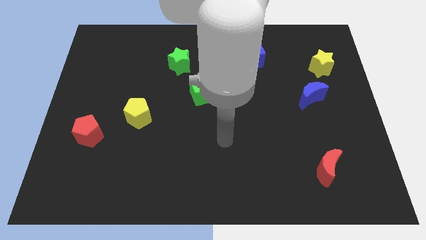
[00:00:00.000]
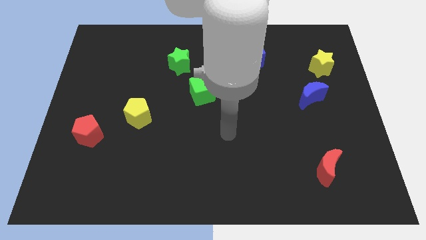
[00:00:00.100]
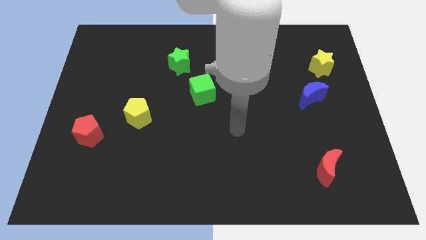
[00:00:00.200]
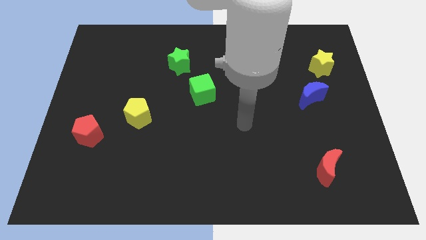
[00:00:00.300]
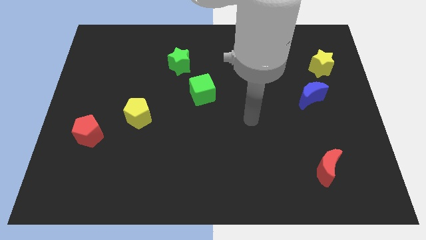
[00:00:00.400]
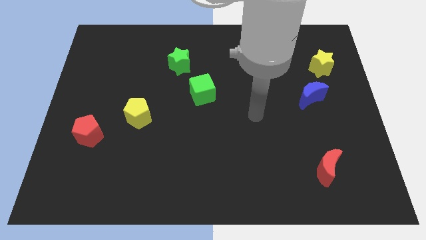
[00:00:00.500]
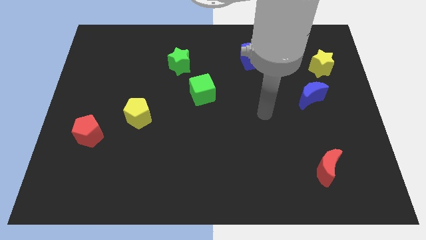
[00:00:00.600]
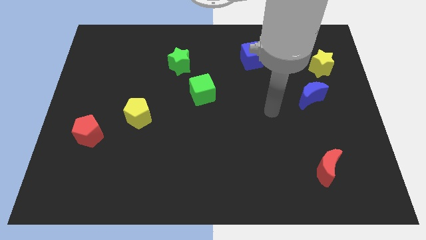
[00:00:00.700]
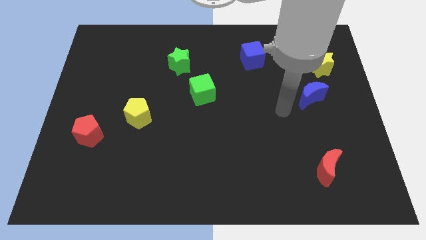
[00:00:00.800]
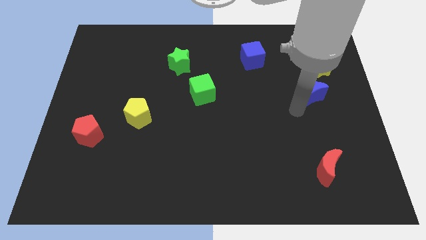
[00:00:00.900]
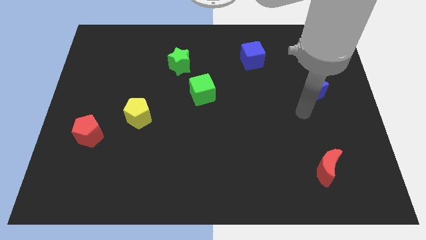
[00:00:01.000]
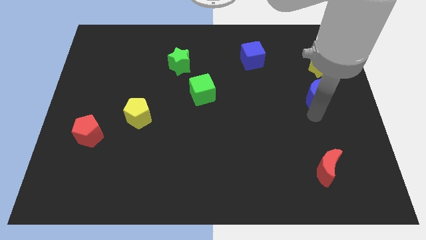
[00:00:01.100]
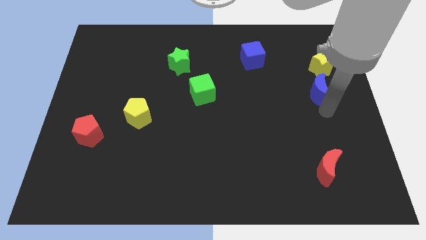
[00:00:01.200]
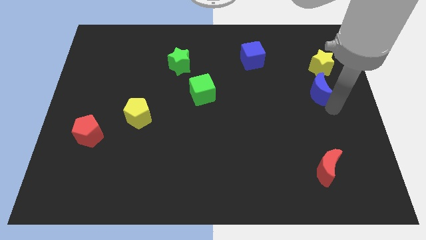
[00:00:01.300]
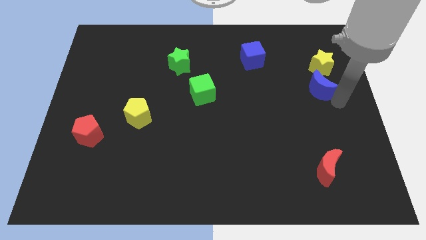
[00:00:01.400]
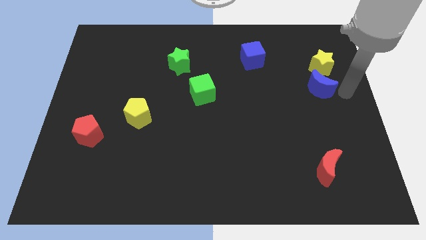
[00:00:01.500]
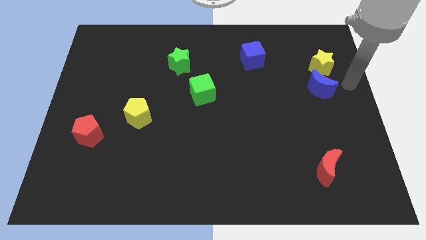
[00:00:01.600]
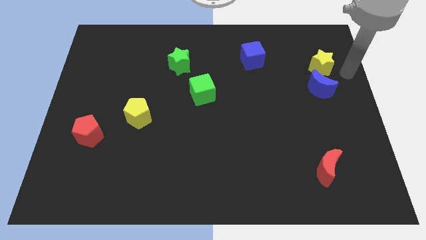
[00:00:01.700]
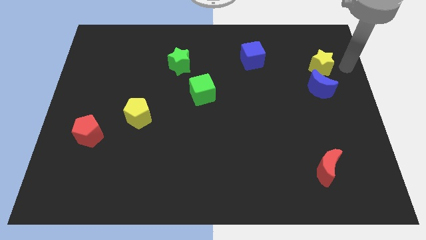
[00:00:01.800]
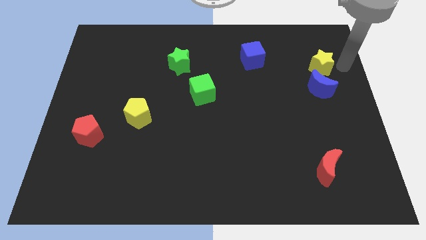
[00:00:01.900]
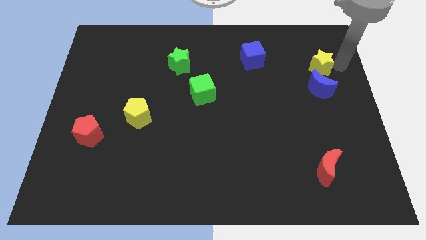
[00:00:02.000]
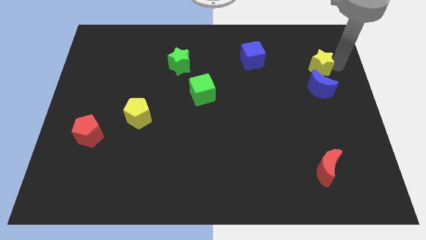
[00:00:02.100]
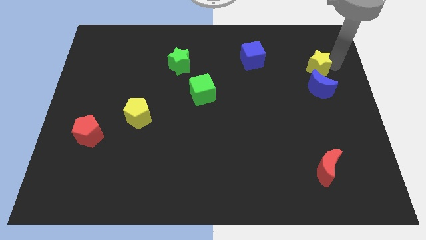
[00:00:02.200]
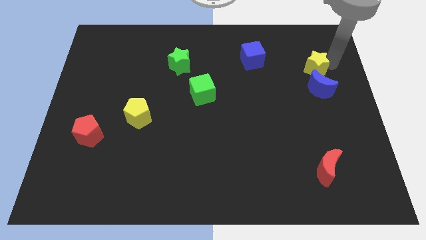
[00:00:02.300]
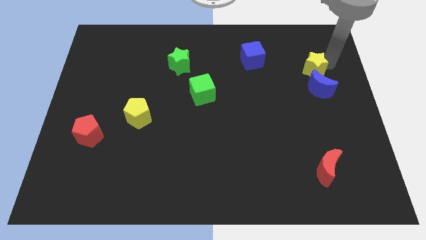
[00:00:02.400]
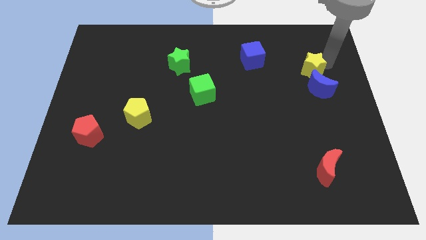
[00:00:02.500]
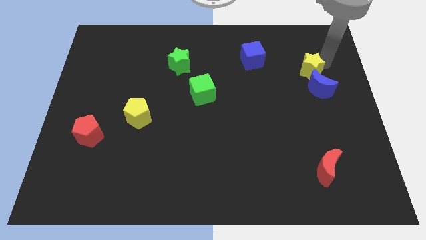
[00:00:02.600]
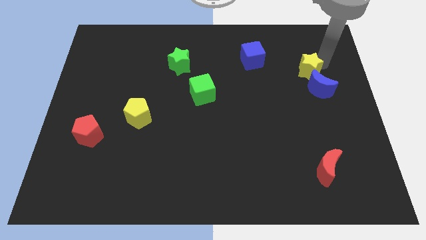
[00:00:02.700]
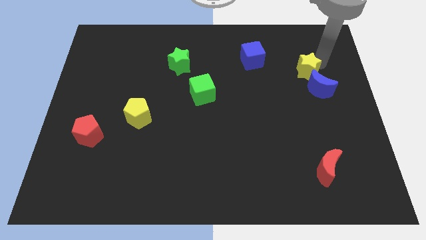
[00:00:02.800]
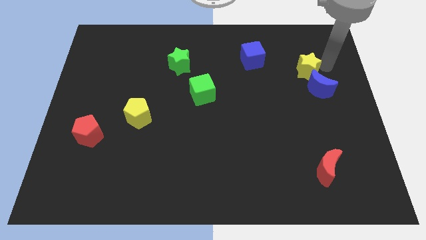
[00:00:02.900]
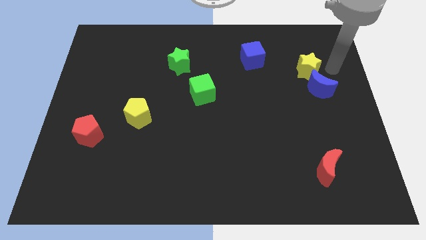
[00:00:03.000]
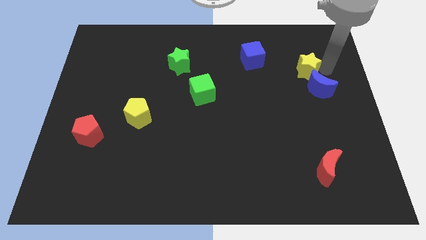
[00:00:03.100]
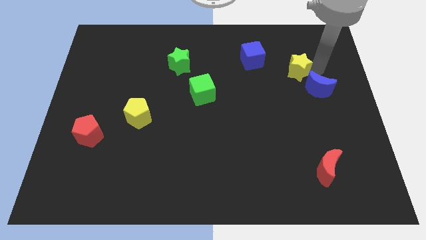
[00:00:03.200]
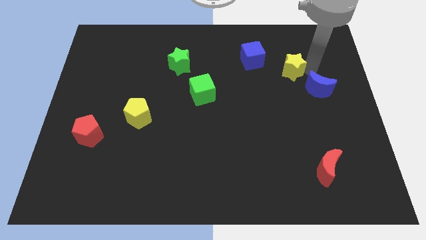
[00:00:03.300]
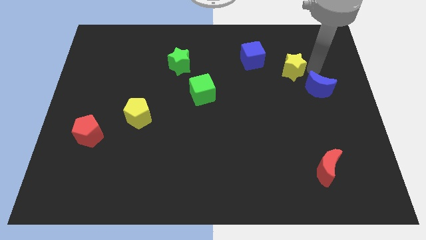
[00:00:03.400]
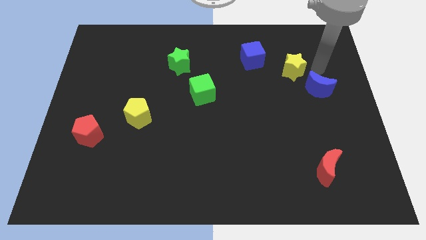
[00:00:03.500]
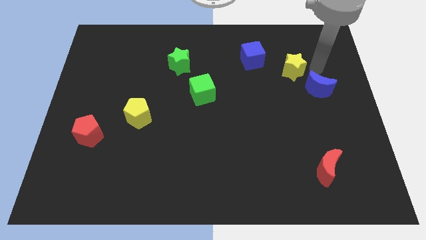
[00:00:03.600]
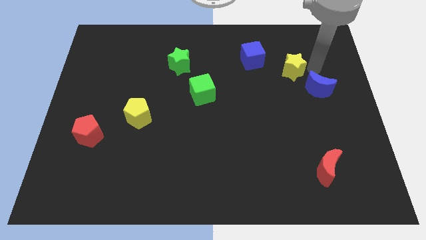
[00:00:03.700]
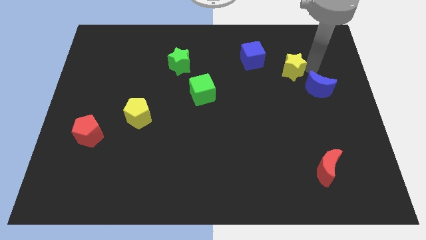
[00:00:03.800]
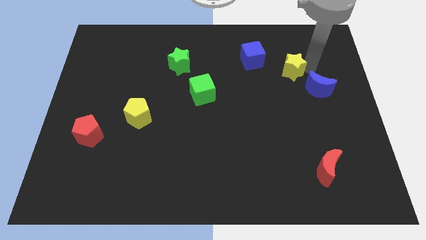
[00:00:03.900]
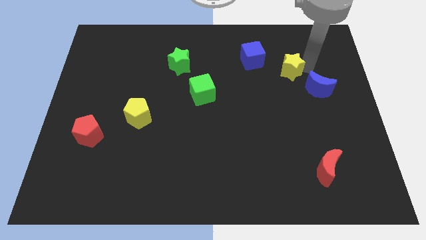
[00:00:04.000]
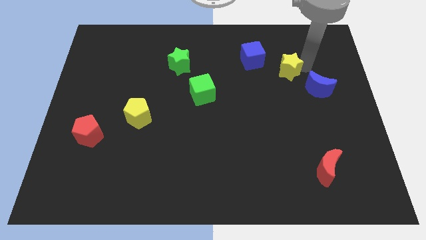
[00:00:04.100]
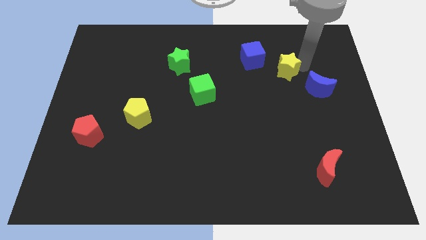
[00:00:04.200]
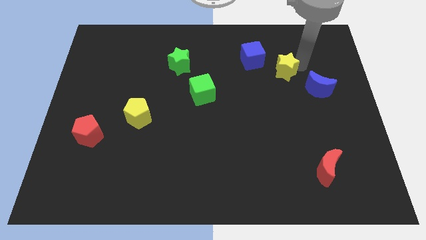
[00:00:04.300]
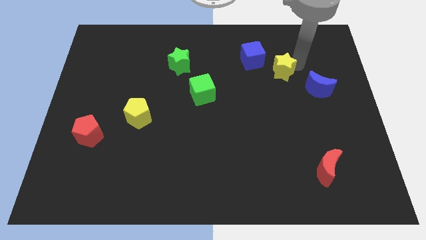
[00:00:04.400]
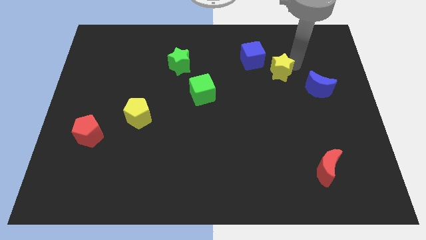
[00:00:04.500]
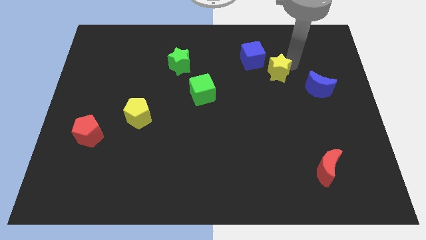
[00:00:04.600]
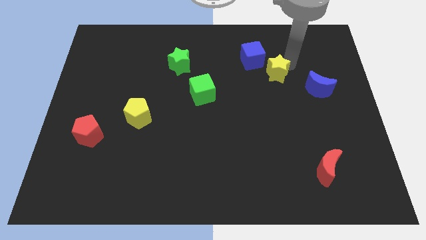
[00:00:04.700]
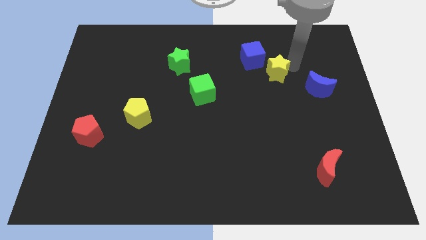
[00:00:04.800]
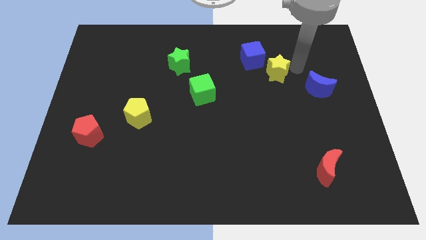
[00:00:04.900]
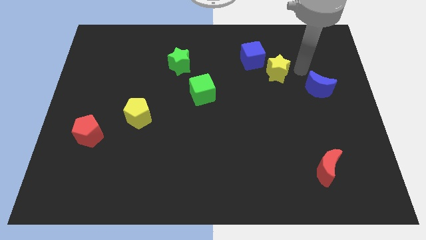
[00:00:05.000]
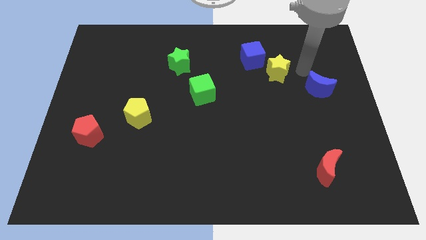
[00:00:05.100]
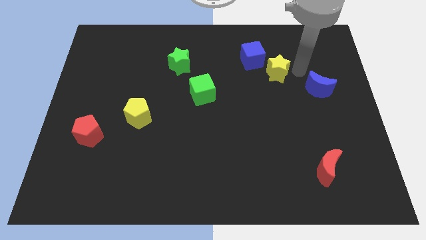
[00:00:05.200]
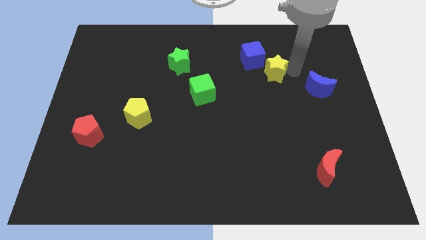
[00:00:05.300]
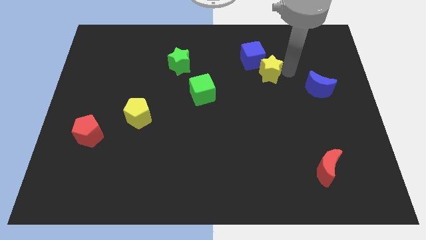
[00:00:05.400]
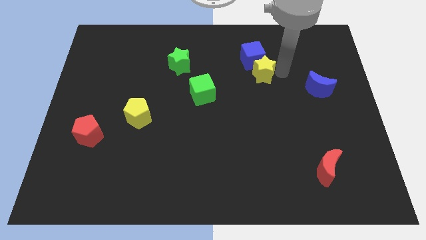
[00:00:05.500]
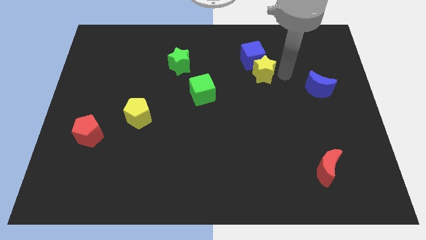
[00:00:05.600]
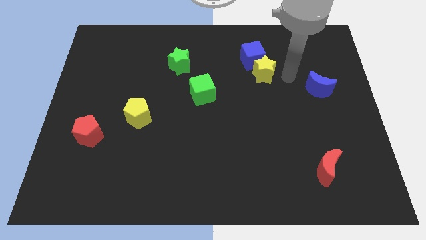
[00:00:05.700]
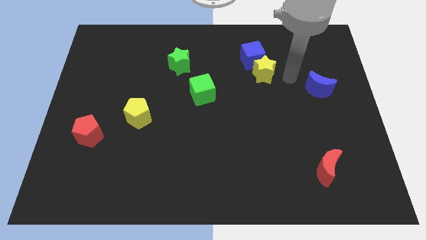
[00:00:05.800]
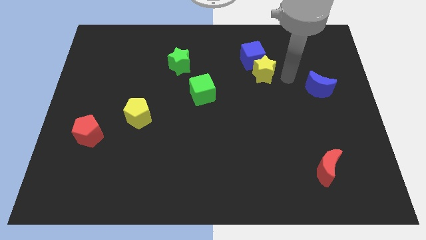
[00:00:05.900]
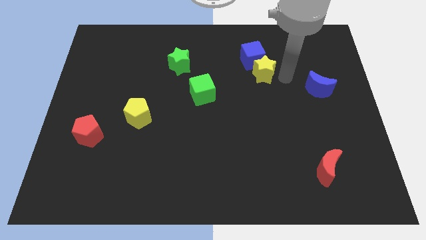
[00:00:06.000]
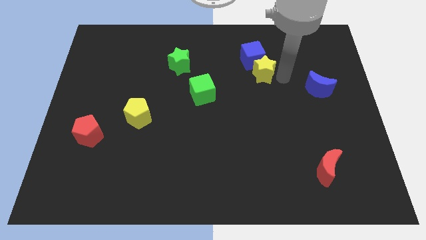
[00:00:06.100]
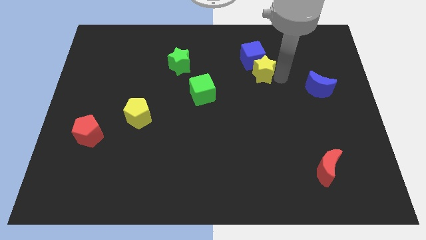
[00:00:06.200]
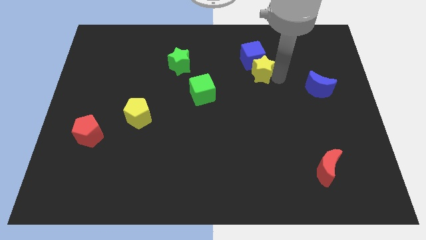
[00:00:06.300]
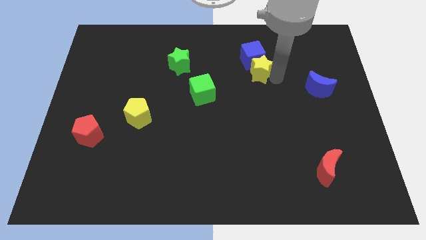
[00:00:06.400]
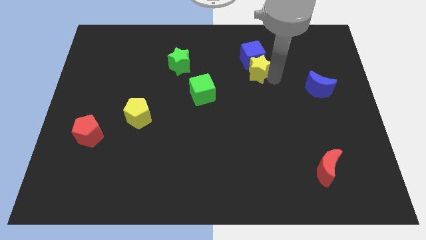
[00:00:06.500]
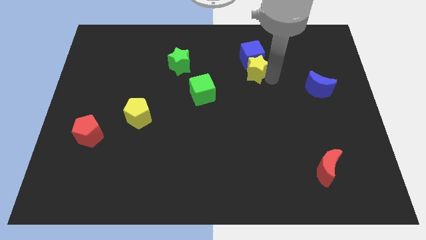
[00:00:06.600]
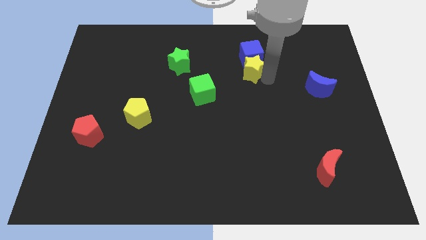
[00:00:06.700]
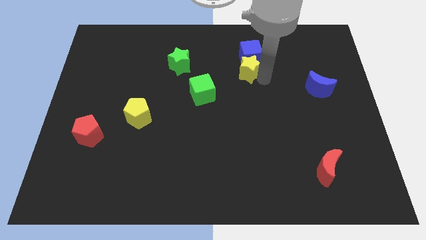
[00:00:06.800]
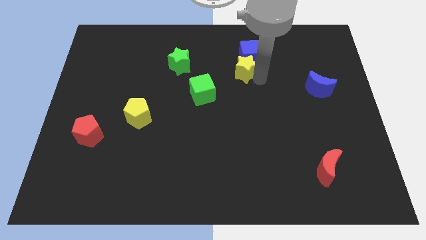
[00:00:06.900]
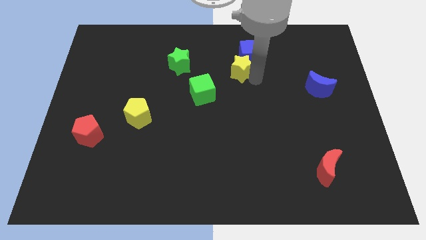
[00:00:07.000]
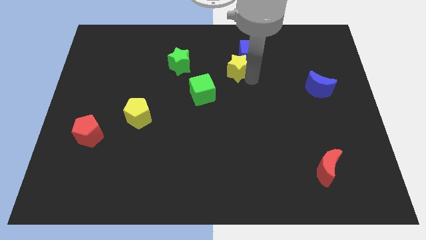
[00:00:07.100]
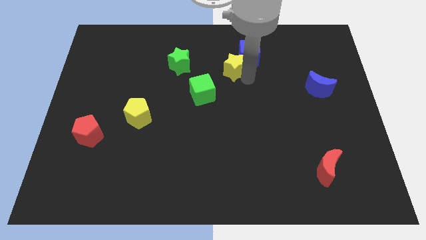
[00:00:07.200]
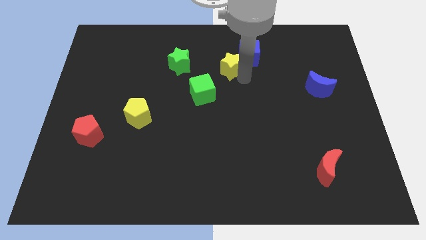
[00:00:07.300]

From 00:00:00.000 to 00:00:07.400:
slide the yellow star to the left of the blue cube
